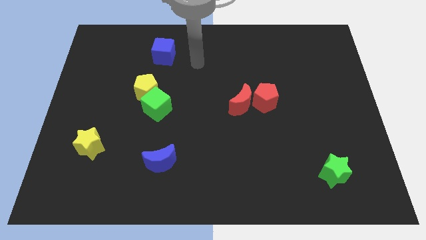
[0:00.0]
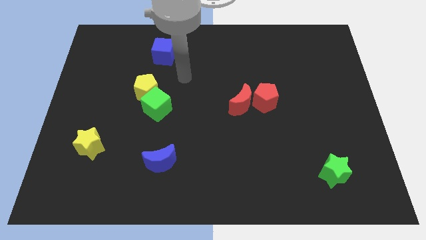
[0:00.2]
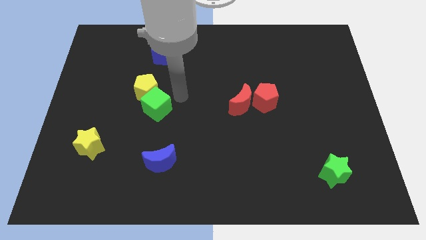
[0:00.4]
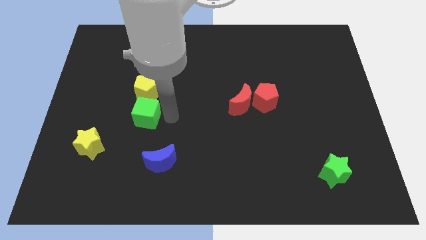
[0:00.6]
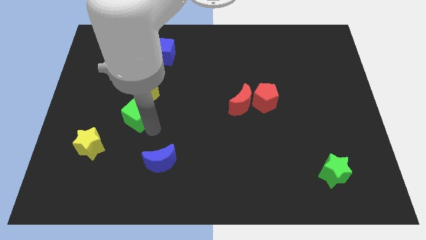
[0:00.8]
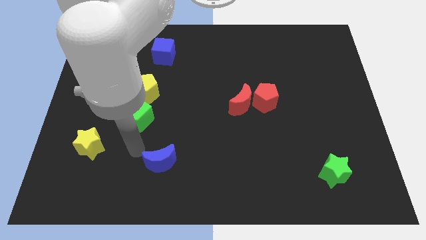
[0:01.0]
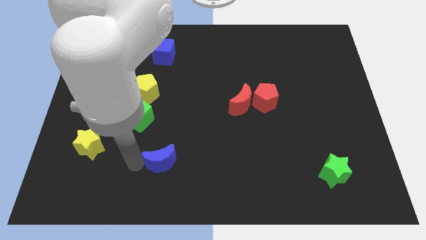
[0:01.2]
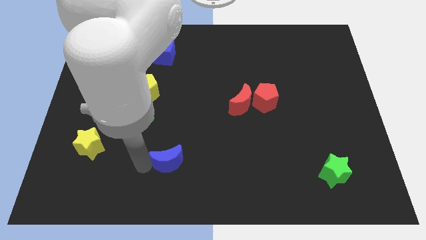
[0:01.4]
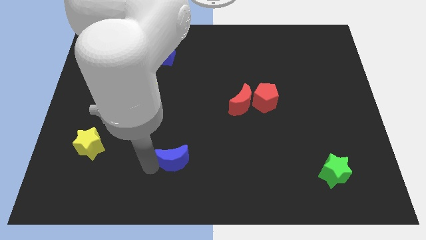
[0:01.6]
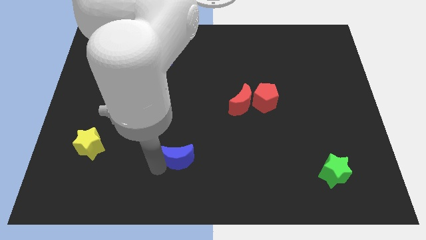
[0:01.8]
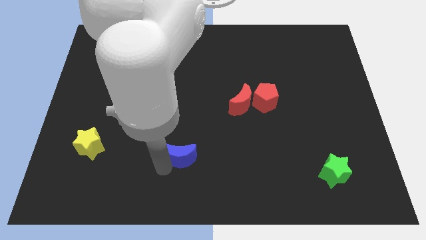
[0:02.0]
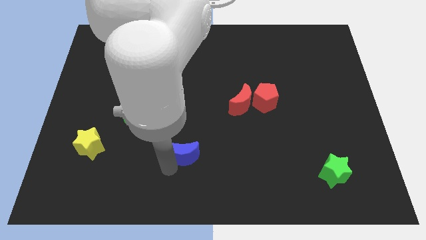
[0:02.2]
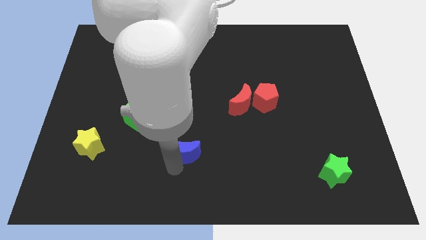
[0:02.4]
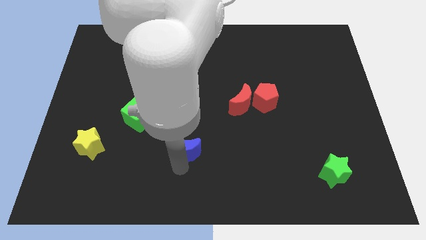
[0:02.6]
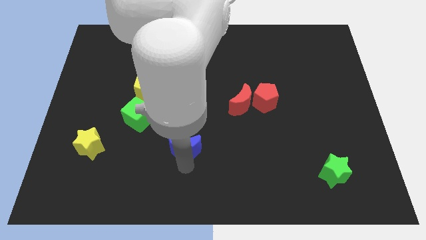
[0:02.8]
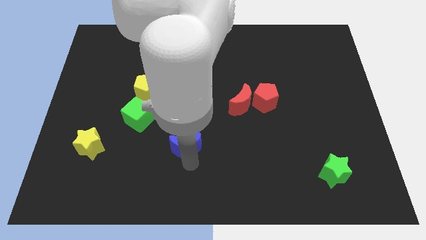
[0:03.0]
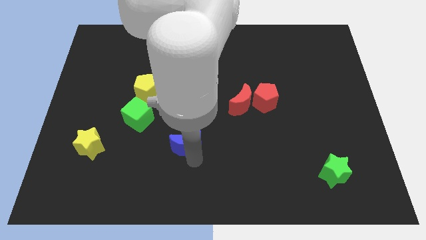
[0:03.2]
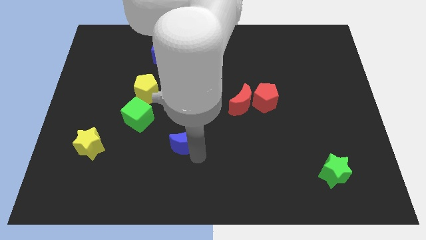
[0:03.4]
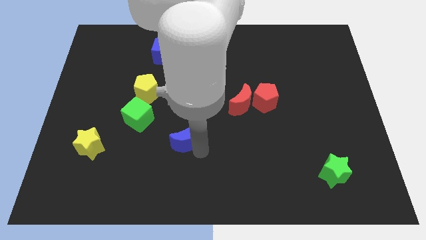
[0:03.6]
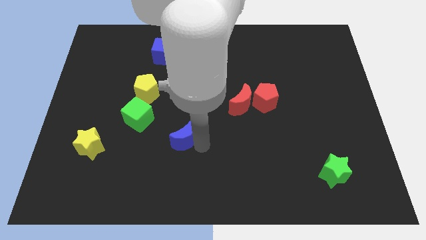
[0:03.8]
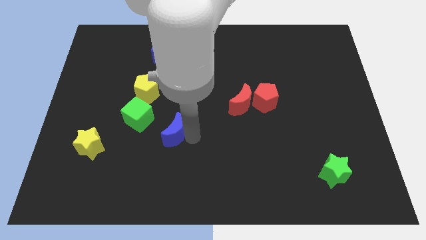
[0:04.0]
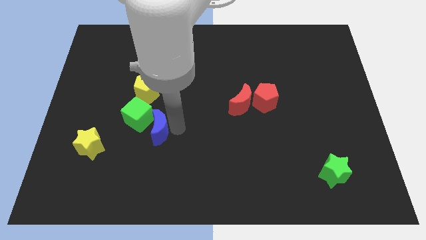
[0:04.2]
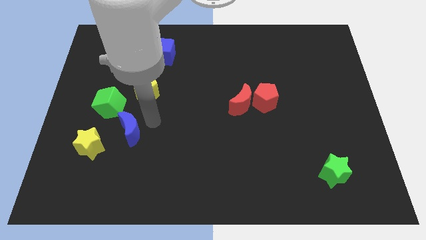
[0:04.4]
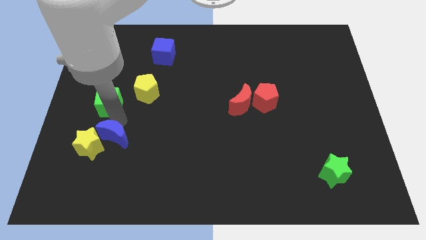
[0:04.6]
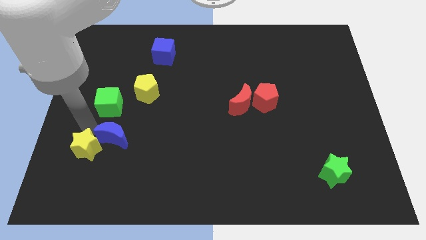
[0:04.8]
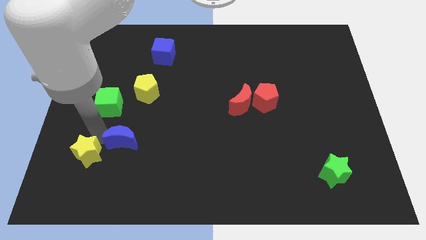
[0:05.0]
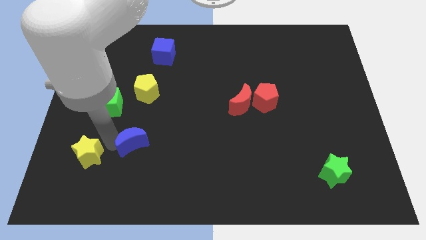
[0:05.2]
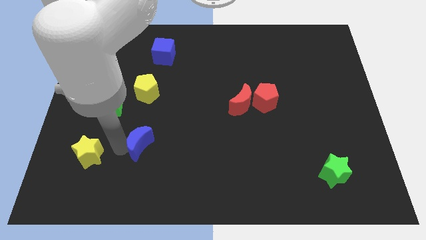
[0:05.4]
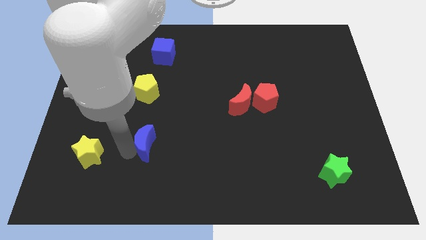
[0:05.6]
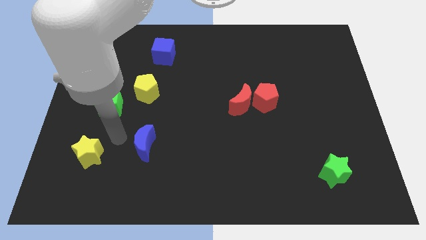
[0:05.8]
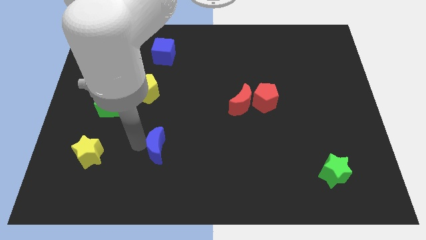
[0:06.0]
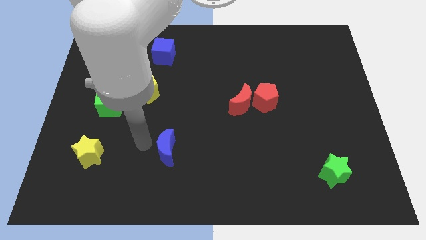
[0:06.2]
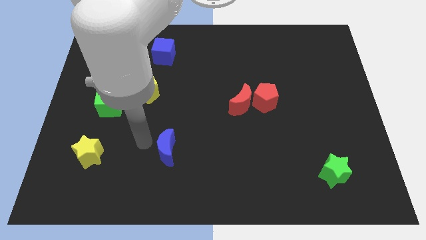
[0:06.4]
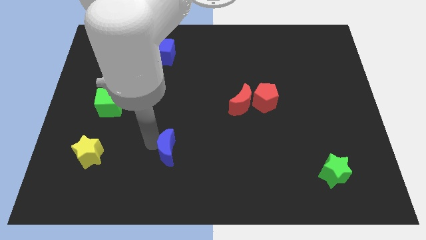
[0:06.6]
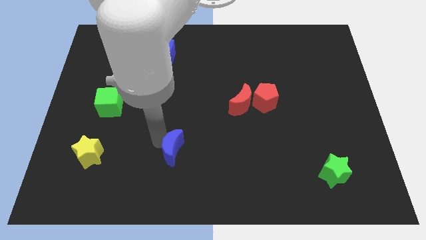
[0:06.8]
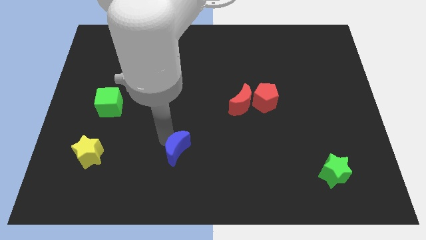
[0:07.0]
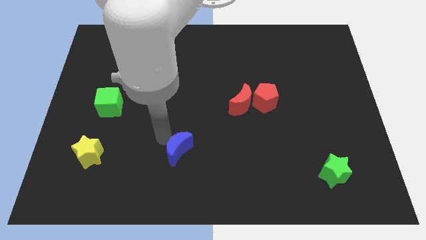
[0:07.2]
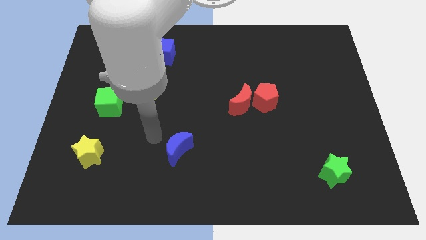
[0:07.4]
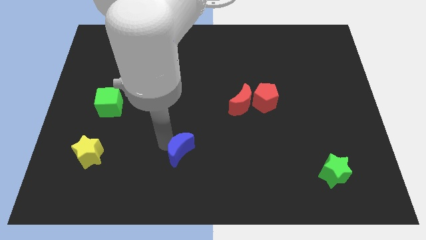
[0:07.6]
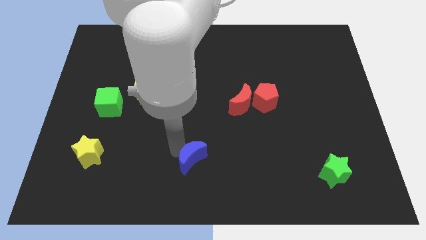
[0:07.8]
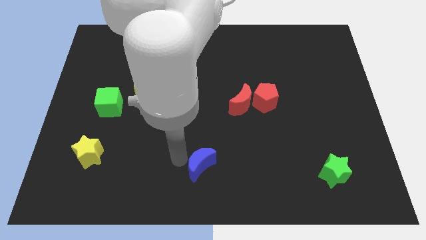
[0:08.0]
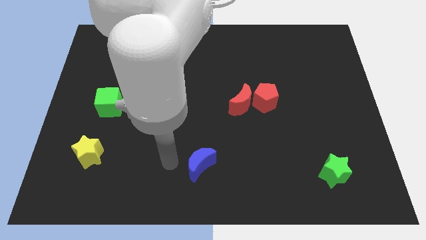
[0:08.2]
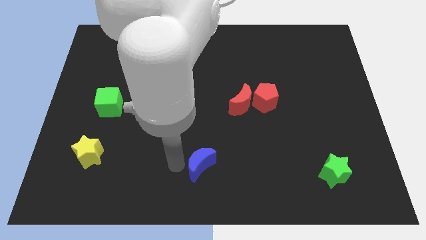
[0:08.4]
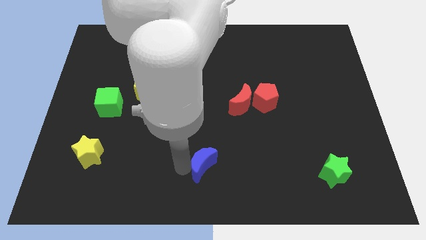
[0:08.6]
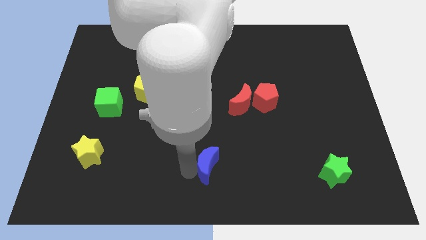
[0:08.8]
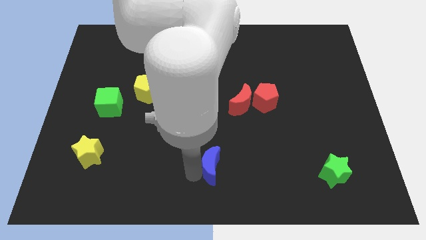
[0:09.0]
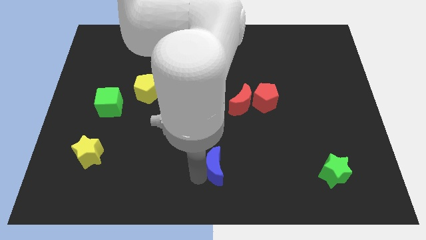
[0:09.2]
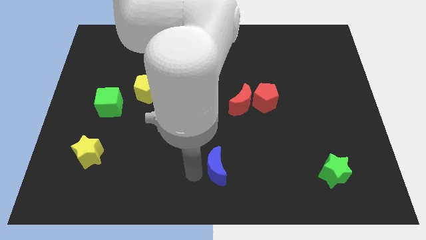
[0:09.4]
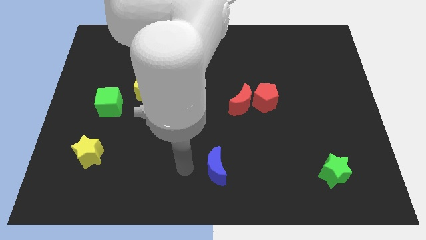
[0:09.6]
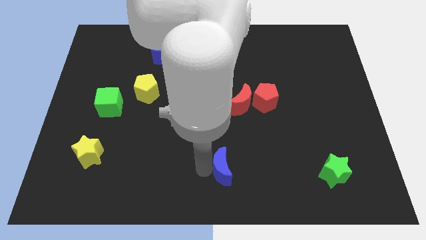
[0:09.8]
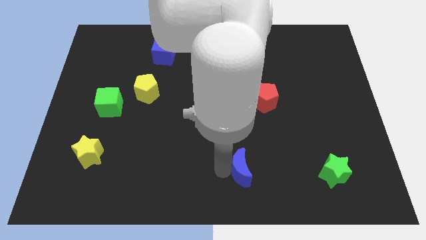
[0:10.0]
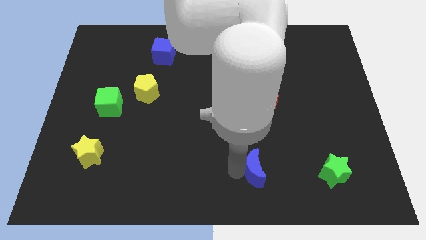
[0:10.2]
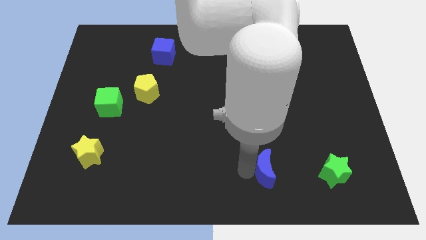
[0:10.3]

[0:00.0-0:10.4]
move the blue moon to the right

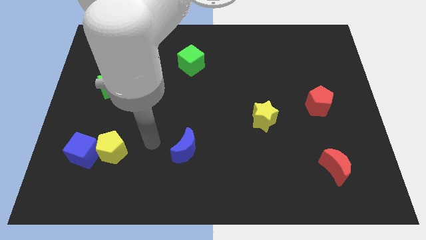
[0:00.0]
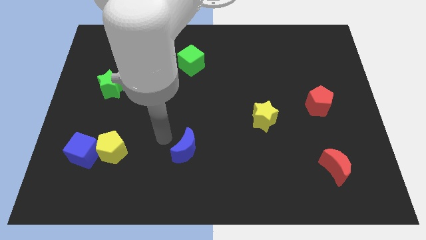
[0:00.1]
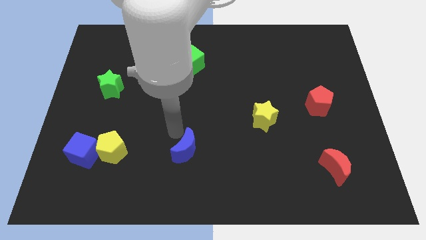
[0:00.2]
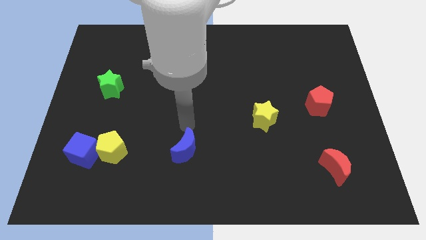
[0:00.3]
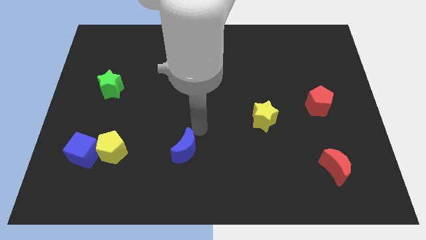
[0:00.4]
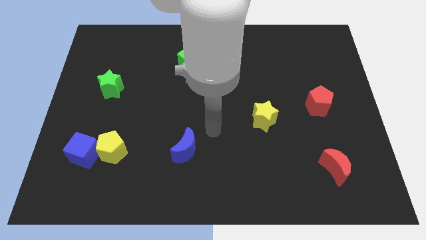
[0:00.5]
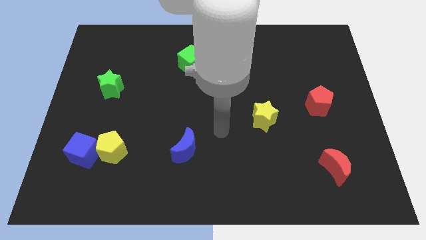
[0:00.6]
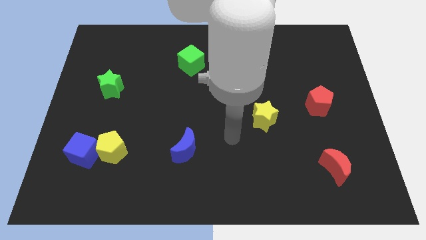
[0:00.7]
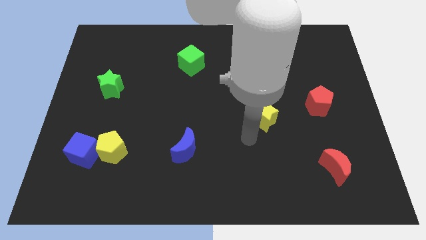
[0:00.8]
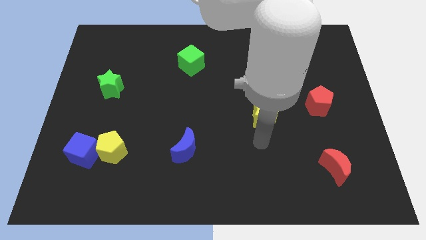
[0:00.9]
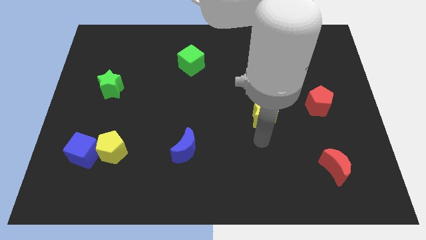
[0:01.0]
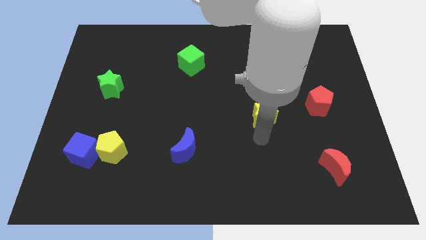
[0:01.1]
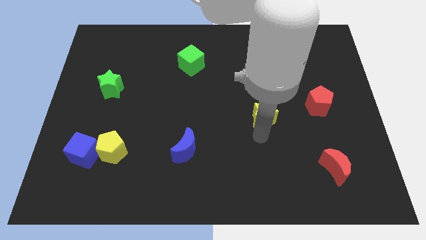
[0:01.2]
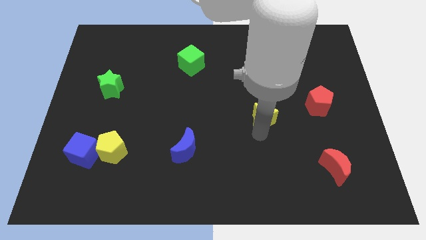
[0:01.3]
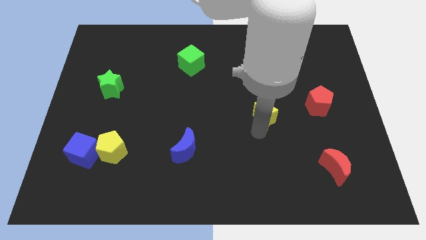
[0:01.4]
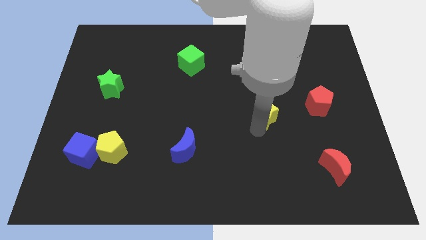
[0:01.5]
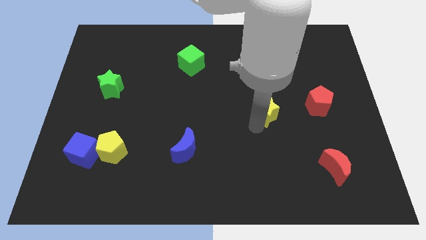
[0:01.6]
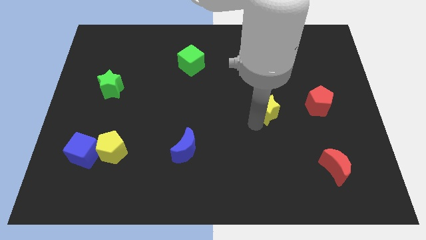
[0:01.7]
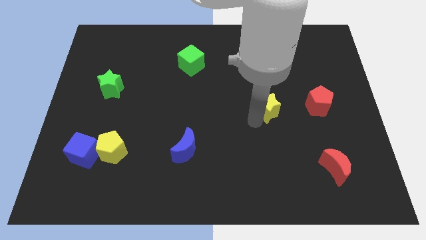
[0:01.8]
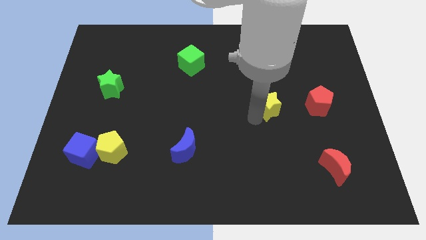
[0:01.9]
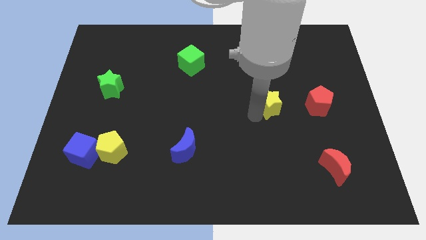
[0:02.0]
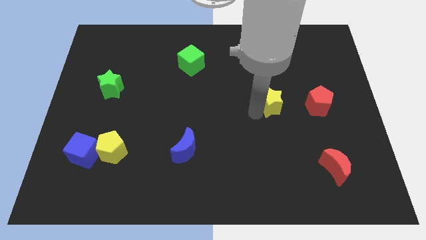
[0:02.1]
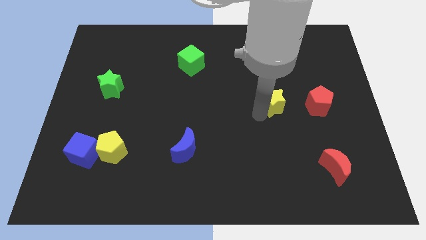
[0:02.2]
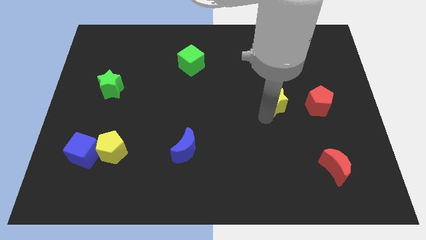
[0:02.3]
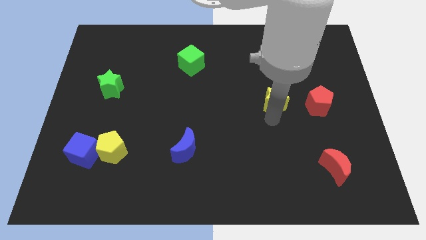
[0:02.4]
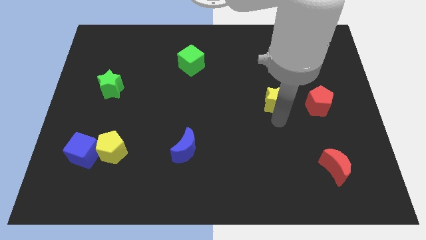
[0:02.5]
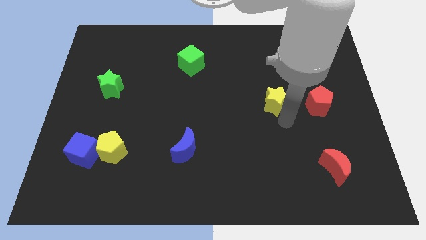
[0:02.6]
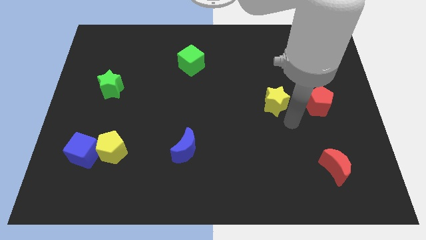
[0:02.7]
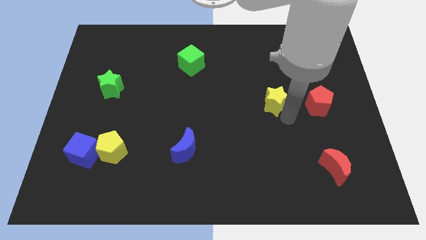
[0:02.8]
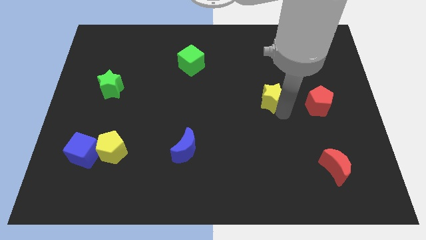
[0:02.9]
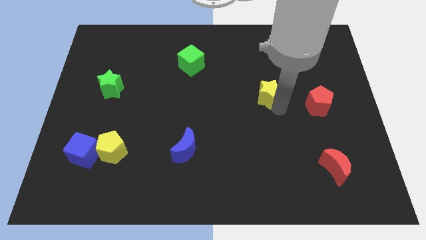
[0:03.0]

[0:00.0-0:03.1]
slightly push the yellow star upwards
